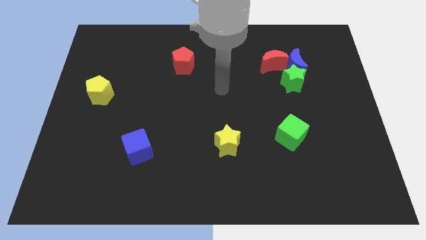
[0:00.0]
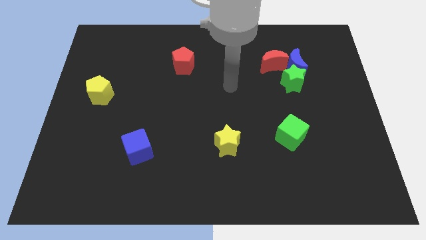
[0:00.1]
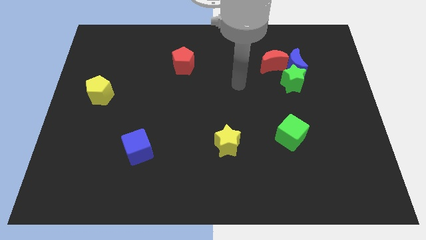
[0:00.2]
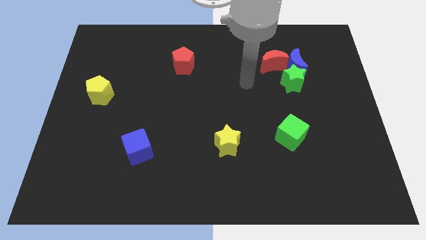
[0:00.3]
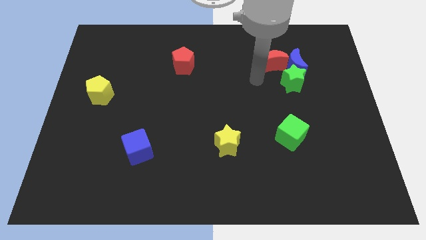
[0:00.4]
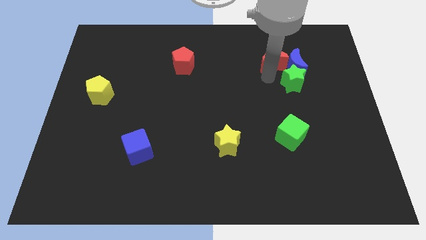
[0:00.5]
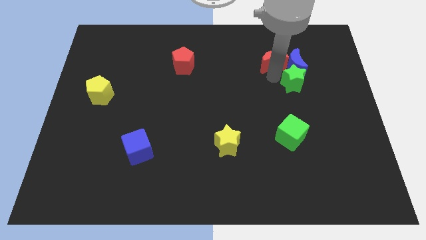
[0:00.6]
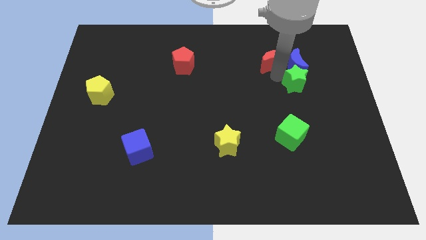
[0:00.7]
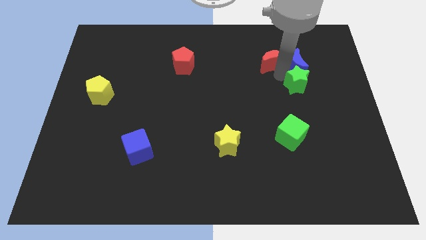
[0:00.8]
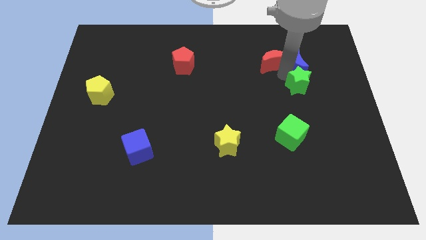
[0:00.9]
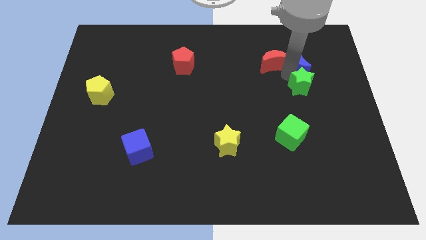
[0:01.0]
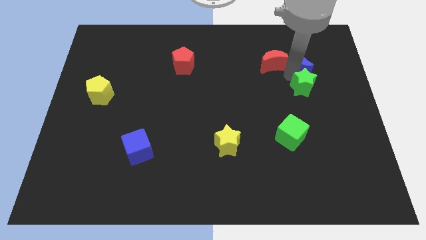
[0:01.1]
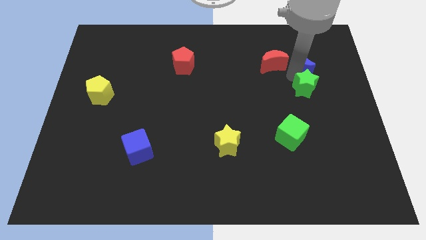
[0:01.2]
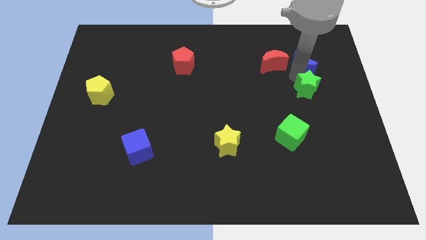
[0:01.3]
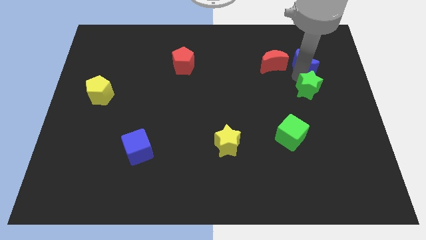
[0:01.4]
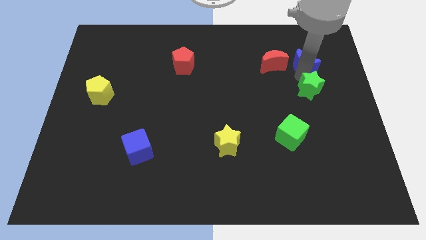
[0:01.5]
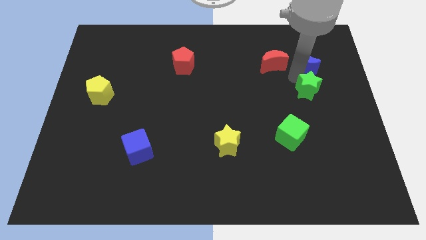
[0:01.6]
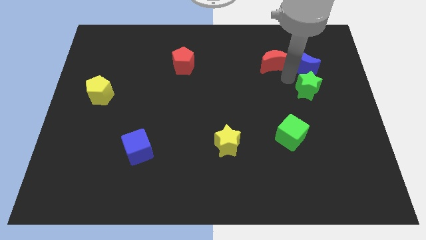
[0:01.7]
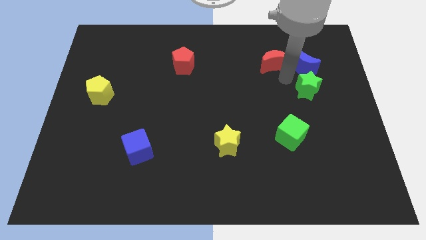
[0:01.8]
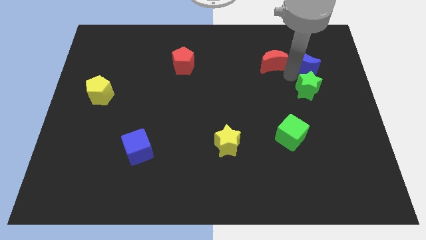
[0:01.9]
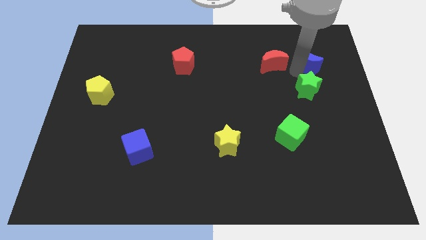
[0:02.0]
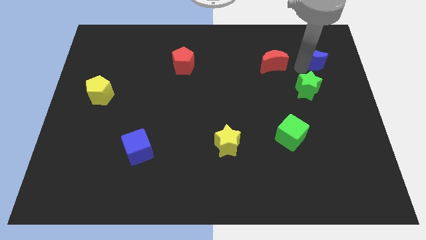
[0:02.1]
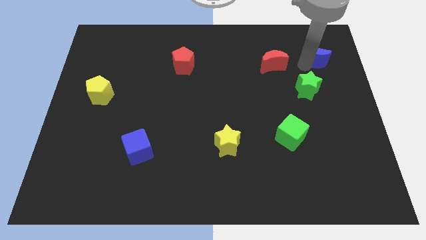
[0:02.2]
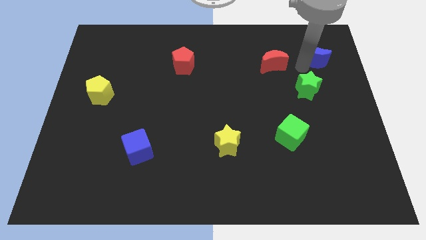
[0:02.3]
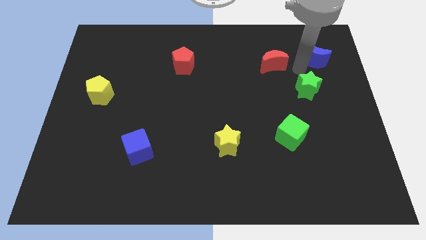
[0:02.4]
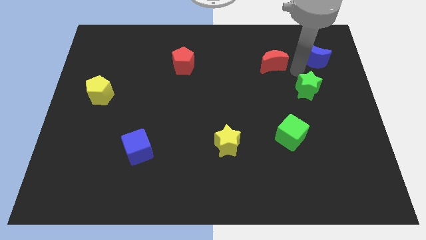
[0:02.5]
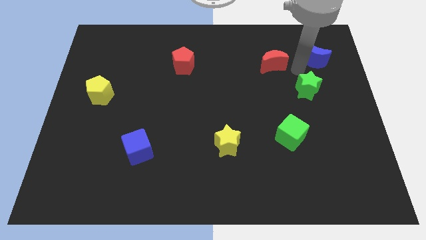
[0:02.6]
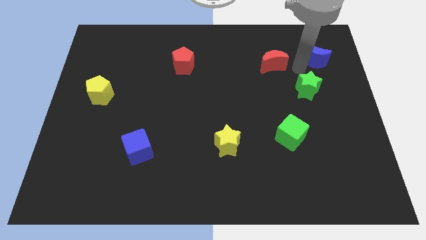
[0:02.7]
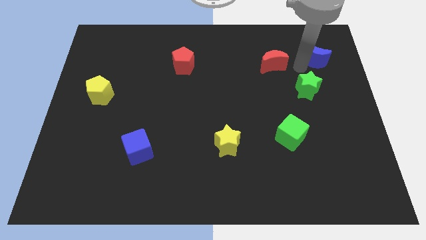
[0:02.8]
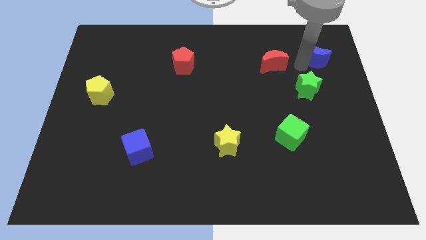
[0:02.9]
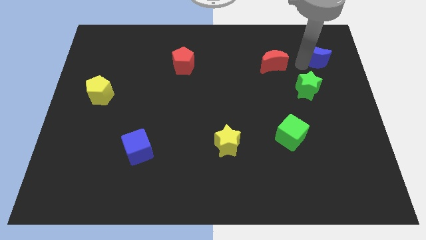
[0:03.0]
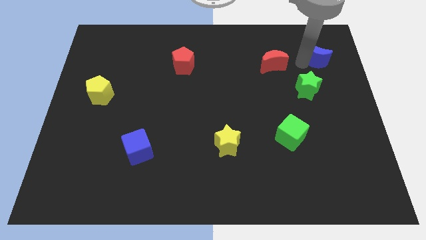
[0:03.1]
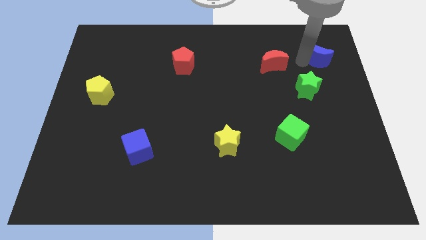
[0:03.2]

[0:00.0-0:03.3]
move the blue moon away from the green star and red moon

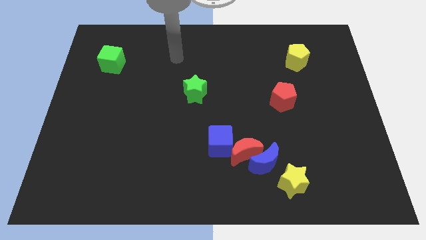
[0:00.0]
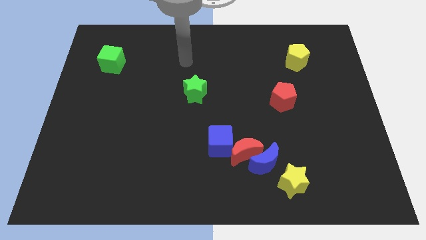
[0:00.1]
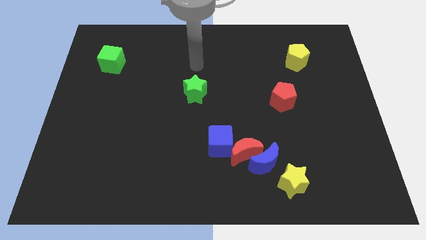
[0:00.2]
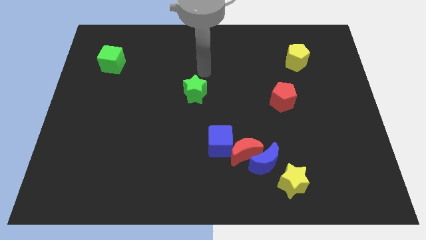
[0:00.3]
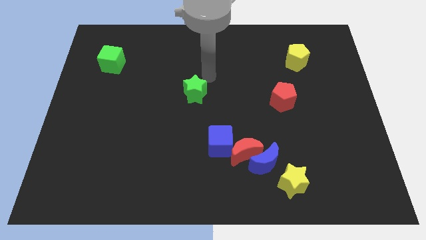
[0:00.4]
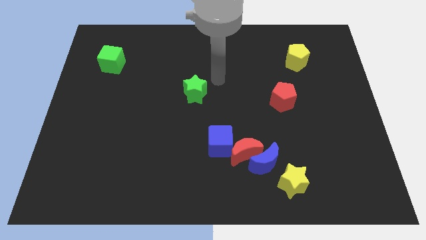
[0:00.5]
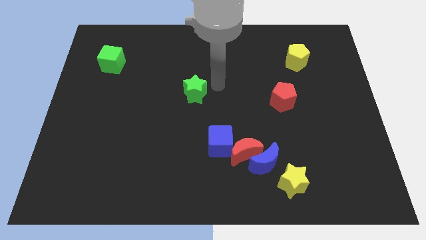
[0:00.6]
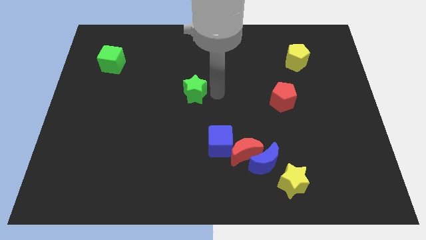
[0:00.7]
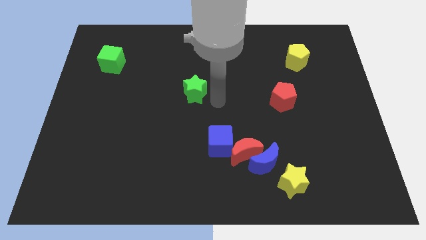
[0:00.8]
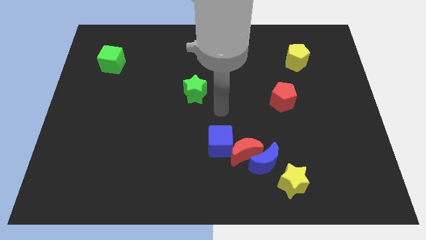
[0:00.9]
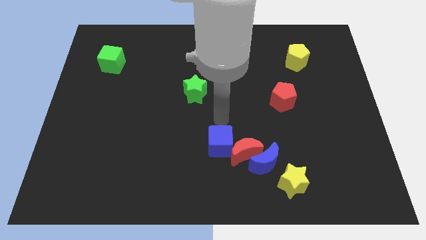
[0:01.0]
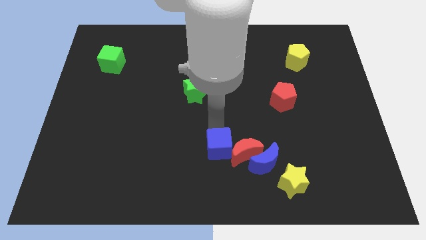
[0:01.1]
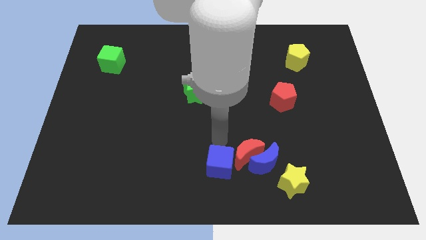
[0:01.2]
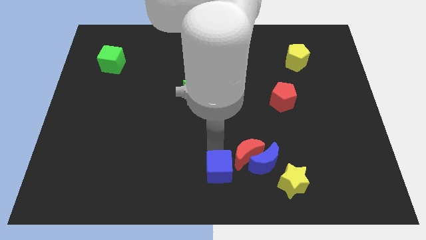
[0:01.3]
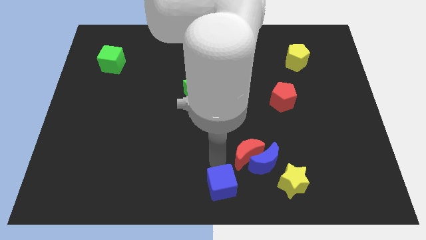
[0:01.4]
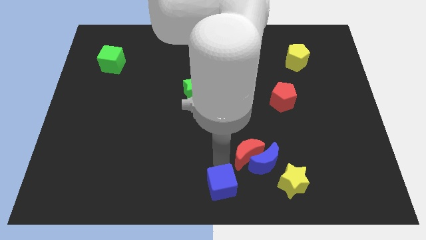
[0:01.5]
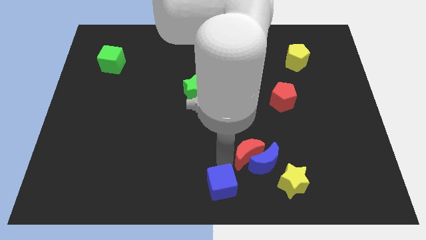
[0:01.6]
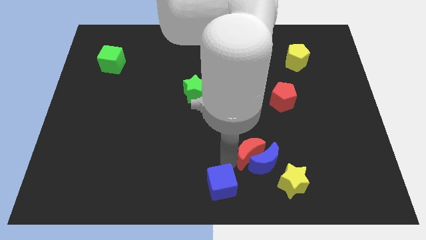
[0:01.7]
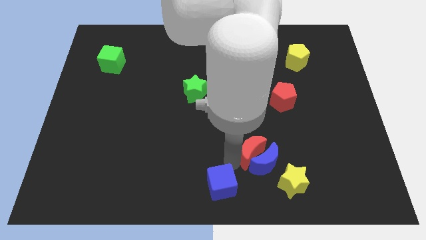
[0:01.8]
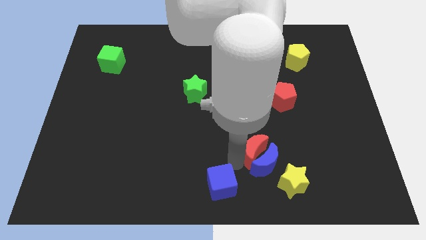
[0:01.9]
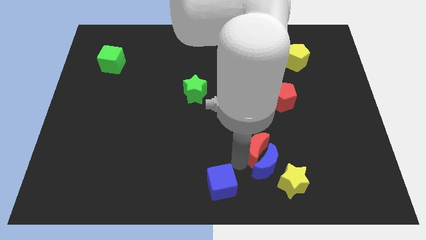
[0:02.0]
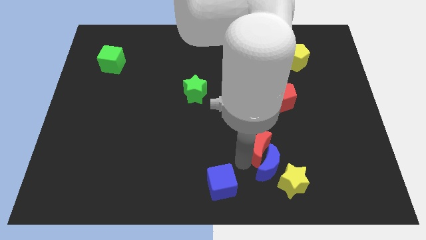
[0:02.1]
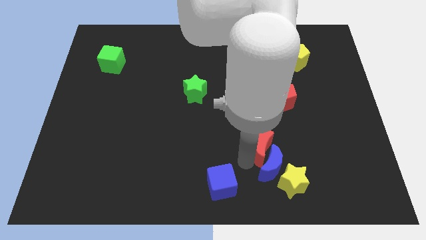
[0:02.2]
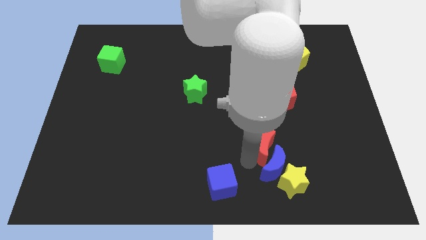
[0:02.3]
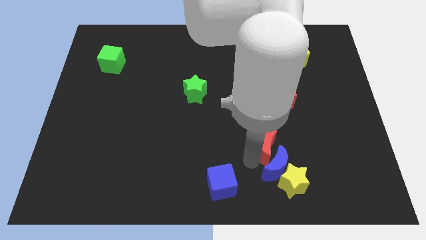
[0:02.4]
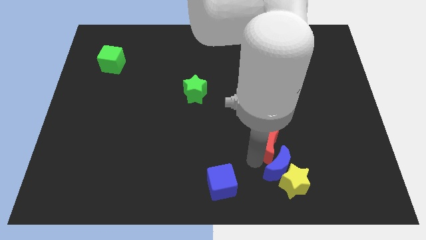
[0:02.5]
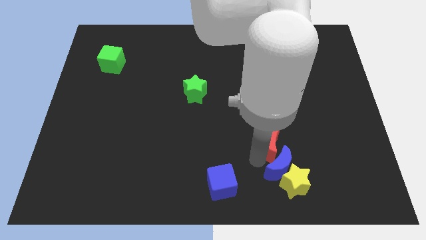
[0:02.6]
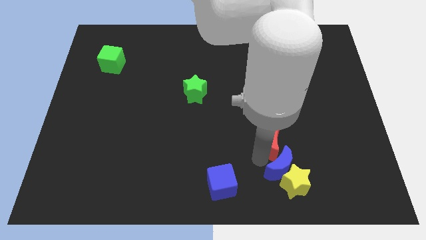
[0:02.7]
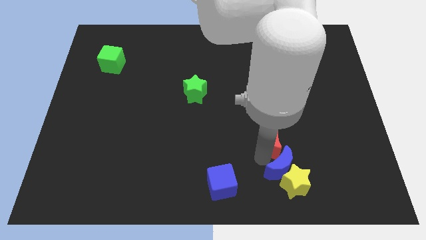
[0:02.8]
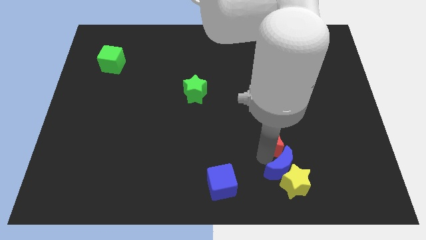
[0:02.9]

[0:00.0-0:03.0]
pull the red moon apart from the blue moon and blue cube

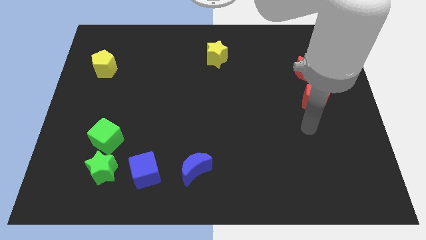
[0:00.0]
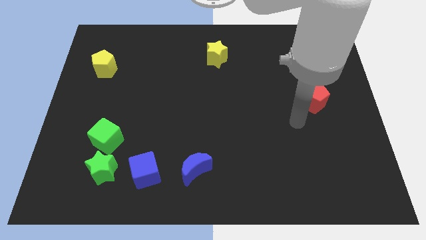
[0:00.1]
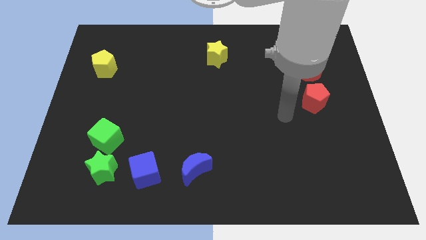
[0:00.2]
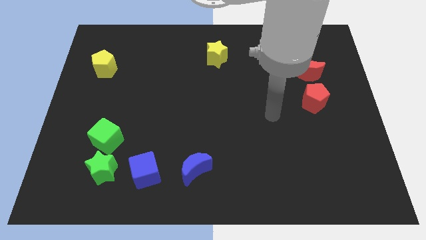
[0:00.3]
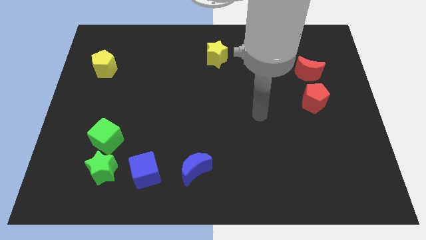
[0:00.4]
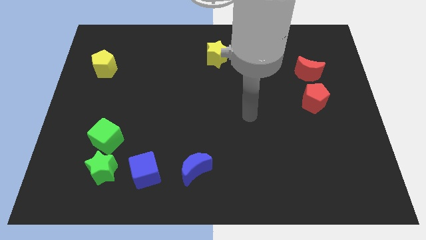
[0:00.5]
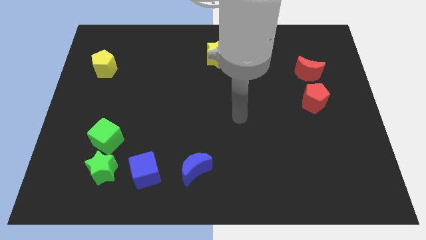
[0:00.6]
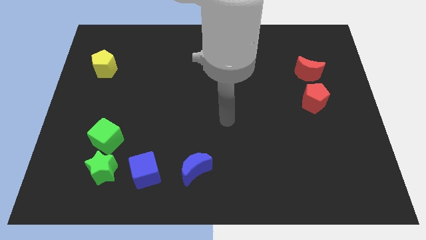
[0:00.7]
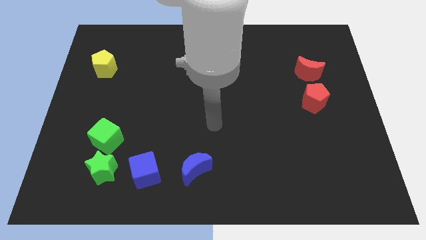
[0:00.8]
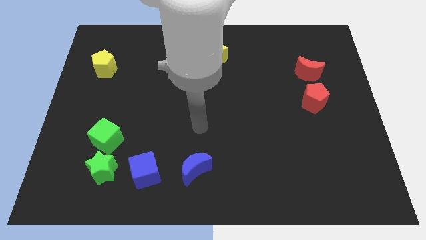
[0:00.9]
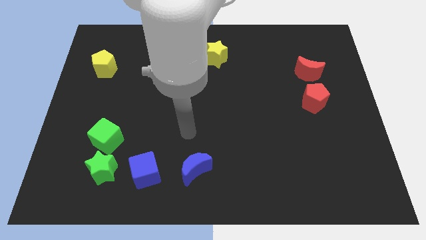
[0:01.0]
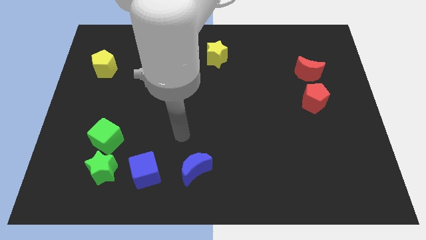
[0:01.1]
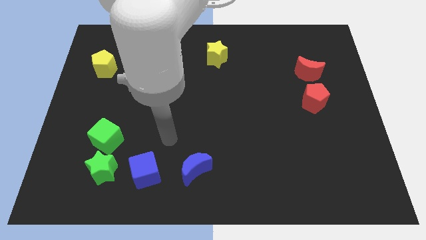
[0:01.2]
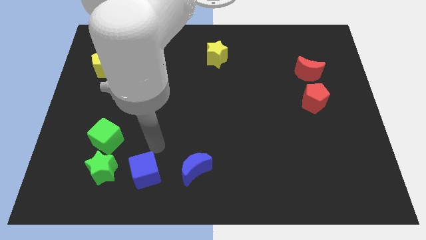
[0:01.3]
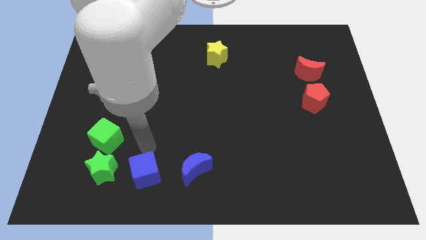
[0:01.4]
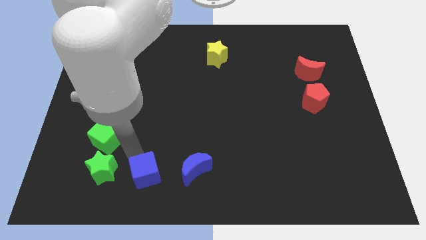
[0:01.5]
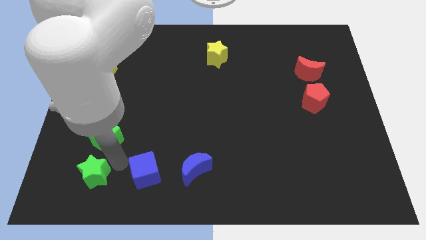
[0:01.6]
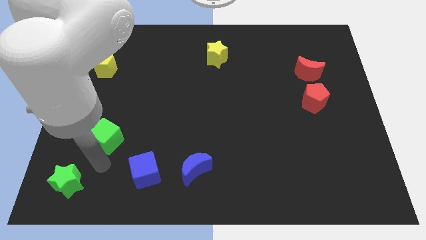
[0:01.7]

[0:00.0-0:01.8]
pull the green cube apart from the green star

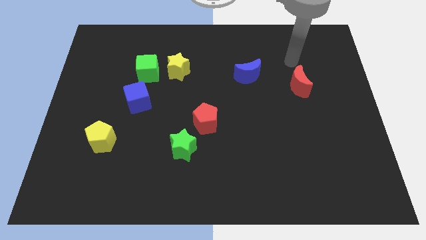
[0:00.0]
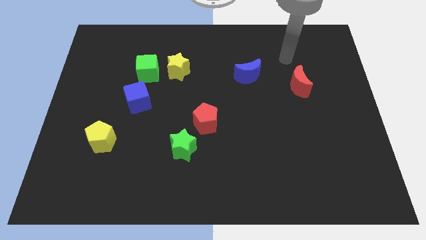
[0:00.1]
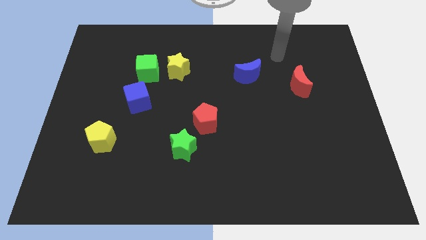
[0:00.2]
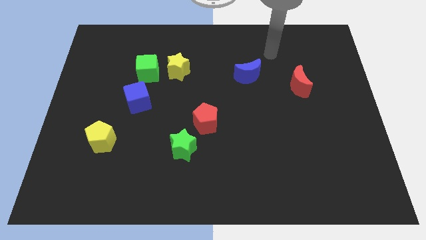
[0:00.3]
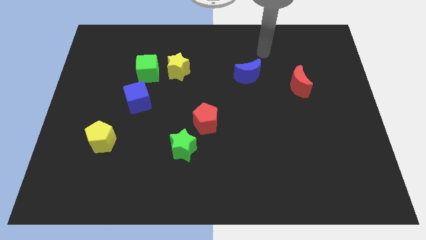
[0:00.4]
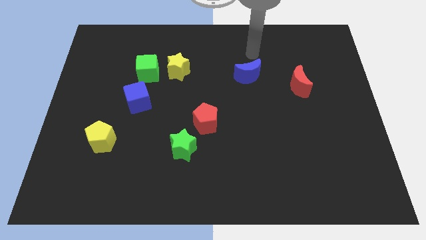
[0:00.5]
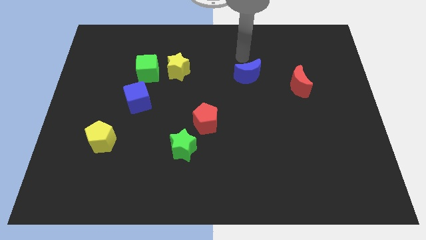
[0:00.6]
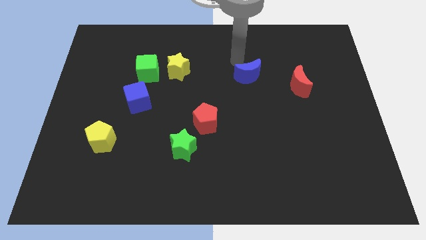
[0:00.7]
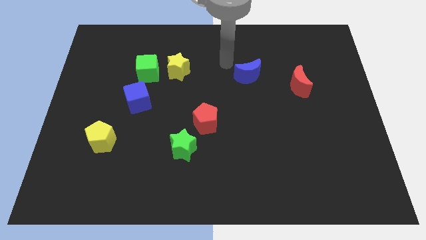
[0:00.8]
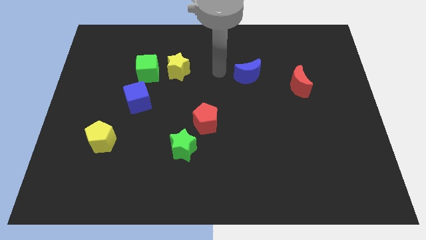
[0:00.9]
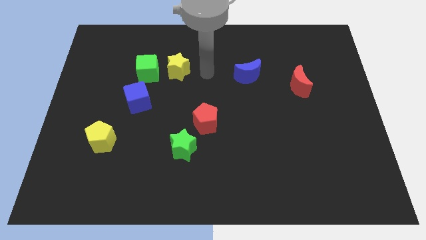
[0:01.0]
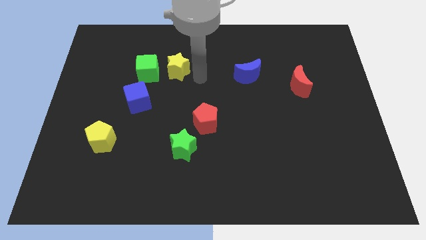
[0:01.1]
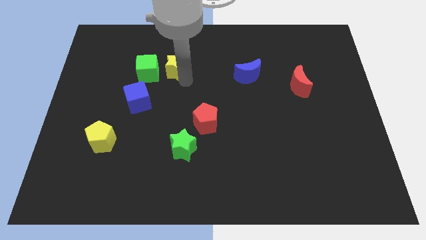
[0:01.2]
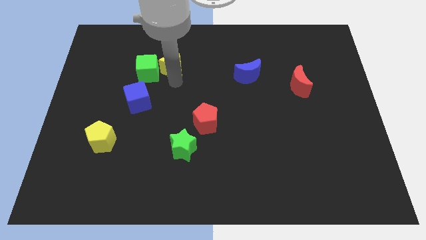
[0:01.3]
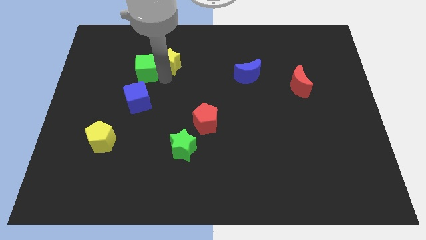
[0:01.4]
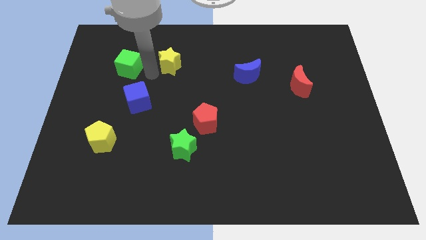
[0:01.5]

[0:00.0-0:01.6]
move the yellow star away from the green cube
